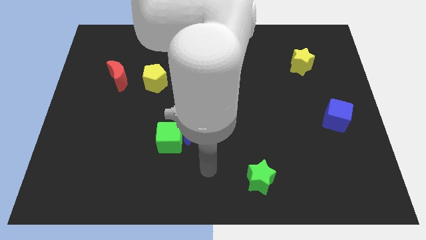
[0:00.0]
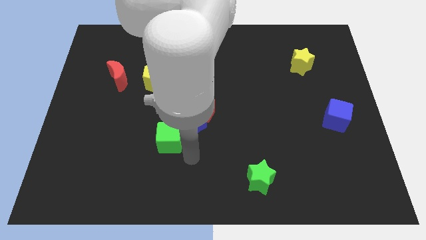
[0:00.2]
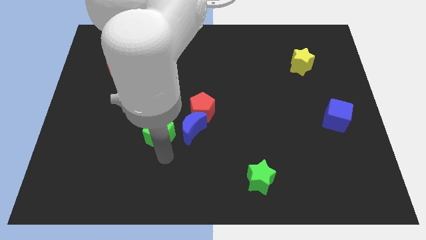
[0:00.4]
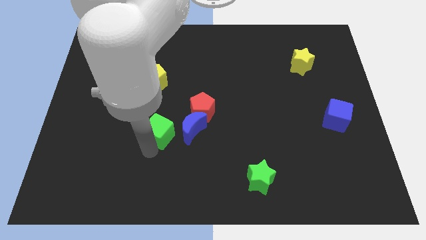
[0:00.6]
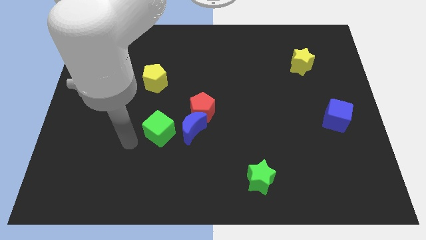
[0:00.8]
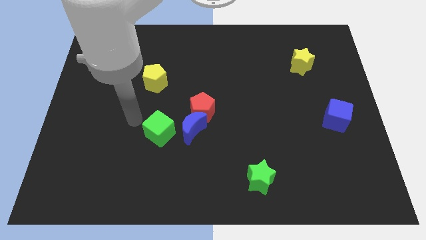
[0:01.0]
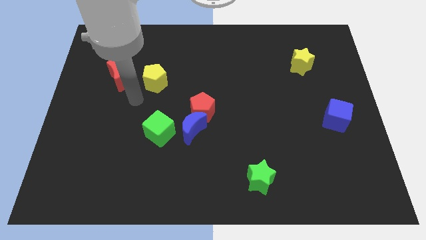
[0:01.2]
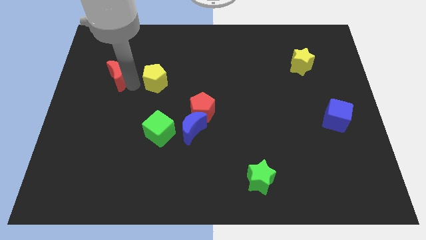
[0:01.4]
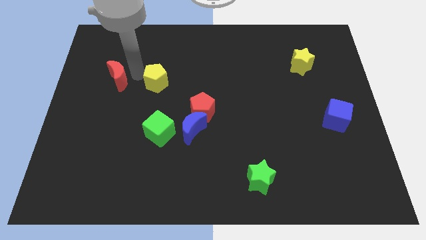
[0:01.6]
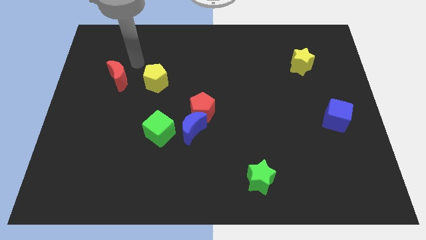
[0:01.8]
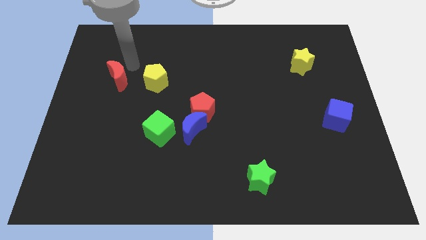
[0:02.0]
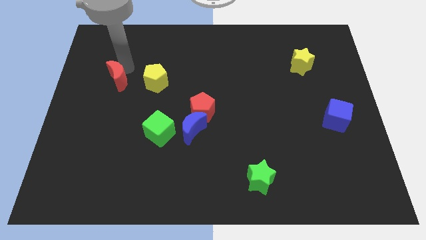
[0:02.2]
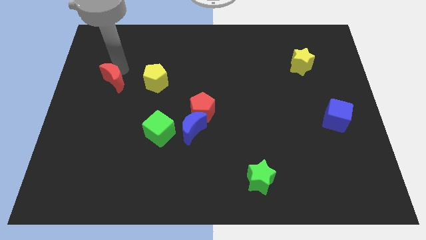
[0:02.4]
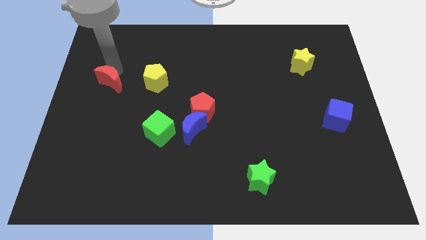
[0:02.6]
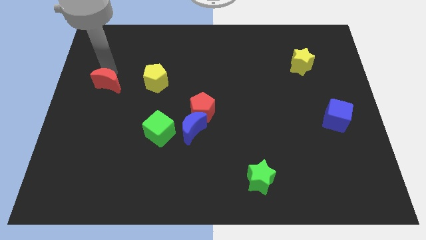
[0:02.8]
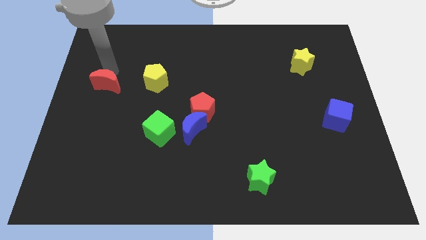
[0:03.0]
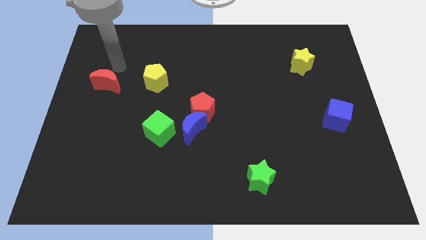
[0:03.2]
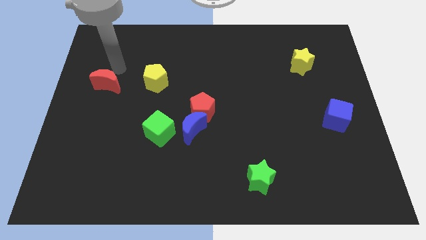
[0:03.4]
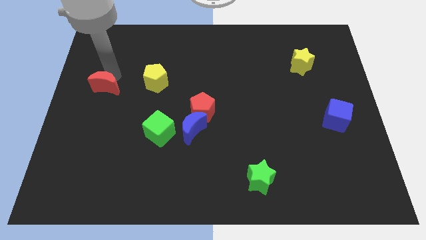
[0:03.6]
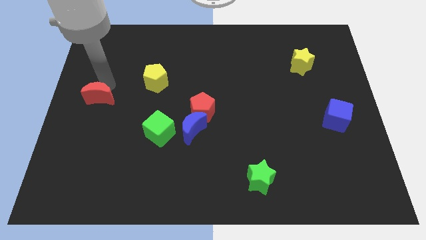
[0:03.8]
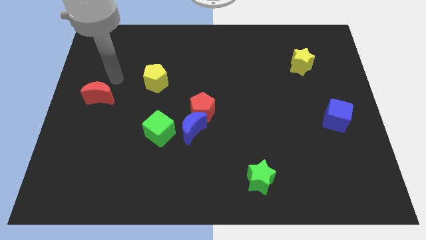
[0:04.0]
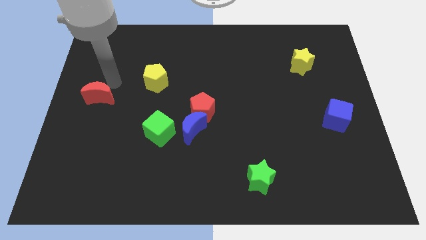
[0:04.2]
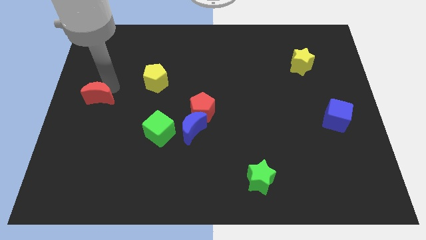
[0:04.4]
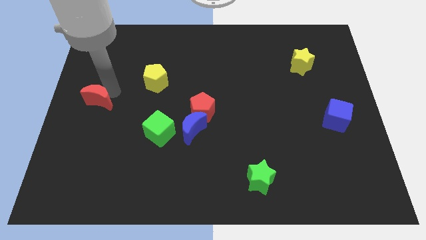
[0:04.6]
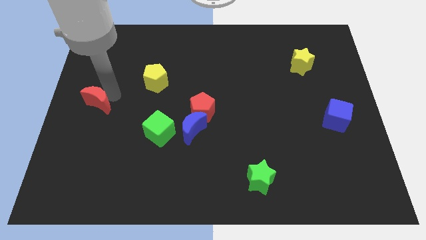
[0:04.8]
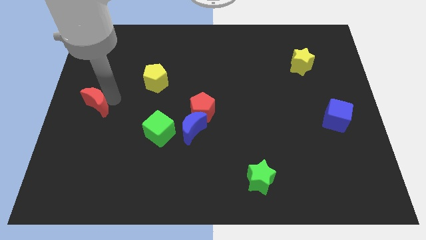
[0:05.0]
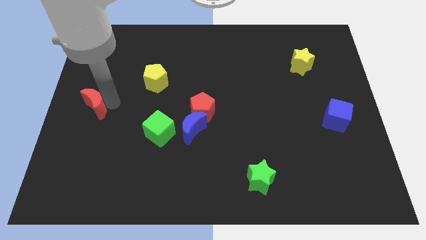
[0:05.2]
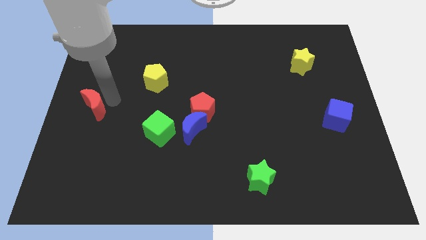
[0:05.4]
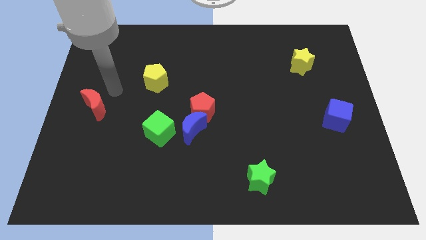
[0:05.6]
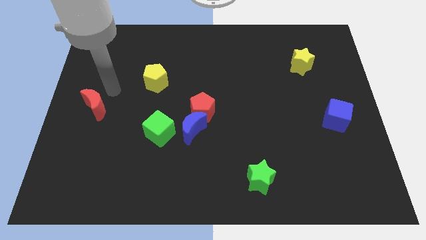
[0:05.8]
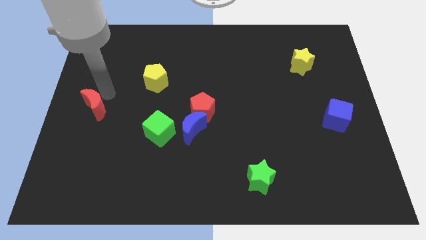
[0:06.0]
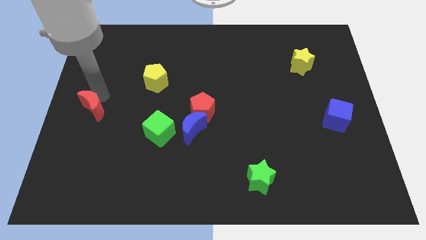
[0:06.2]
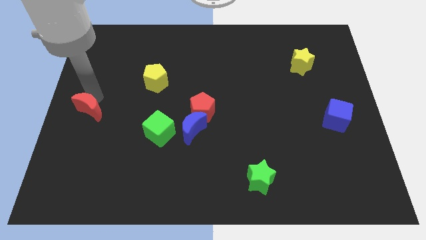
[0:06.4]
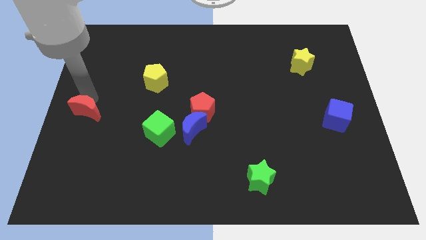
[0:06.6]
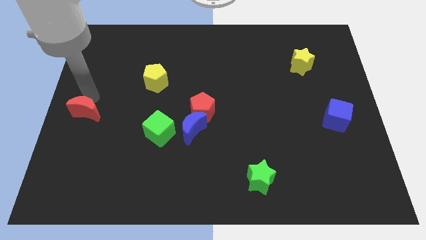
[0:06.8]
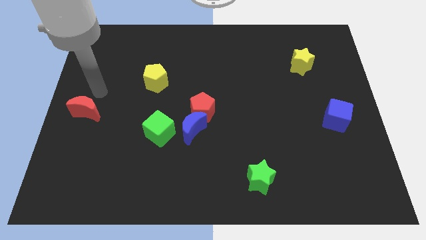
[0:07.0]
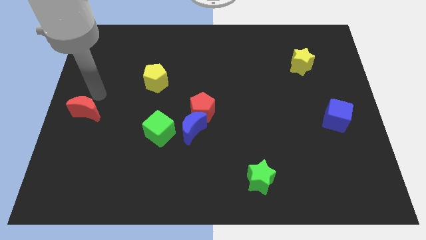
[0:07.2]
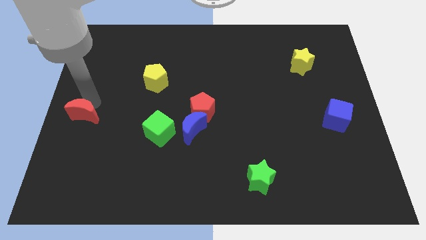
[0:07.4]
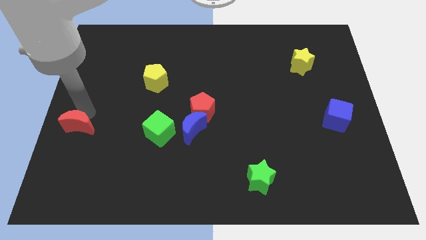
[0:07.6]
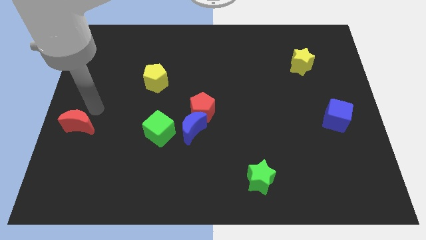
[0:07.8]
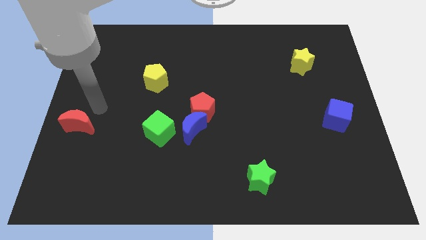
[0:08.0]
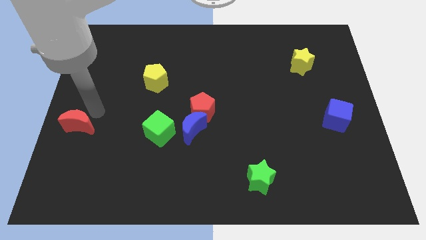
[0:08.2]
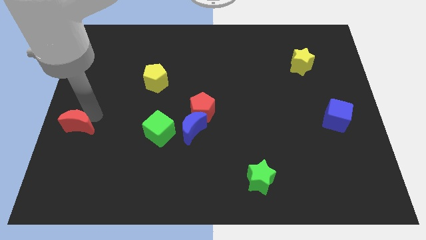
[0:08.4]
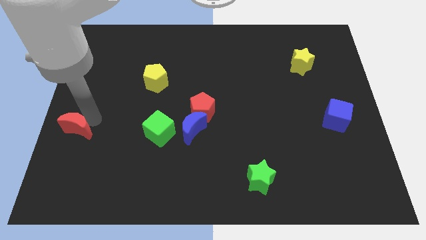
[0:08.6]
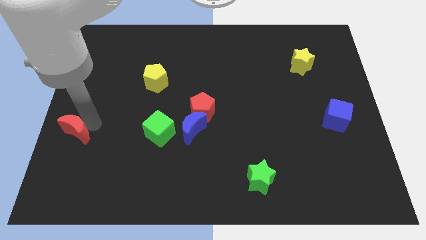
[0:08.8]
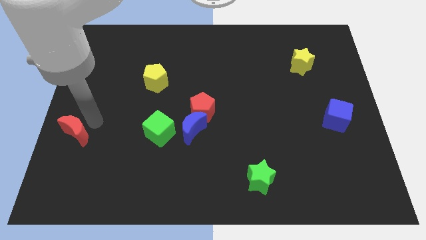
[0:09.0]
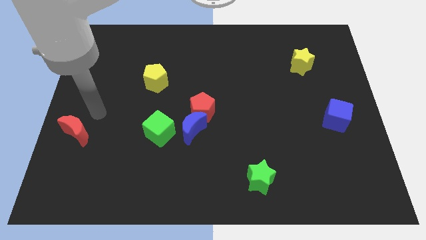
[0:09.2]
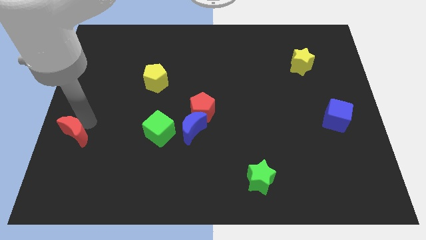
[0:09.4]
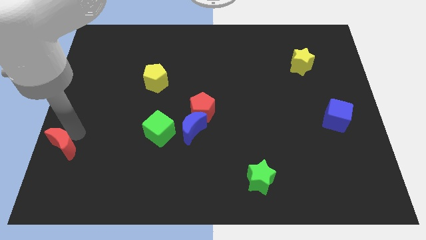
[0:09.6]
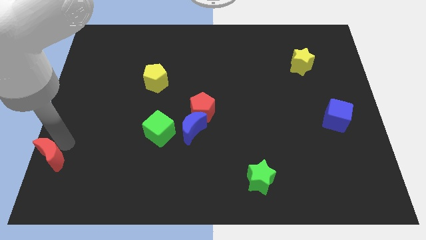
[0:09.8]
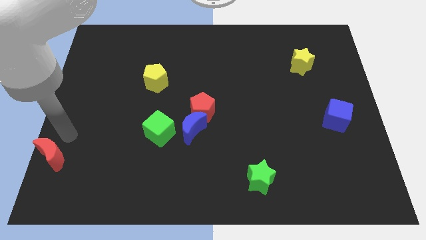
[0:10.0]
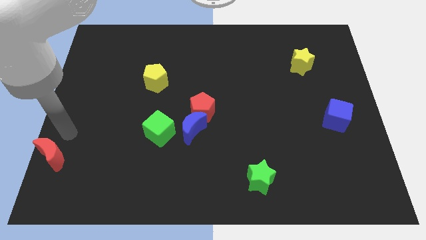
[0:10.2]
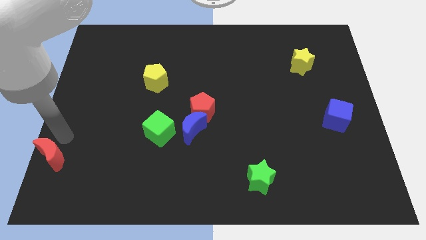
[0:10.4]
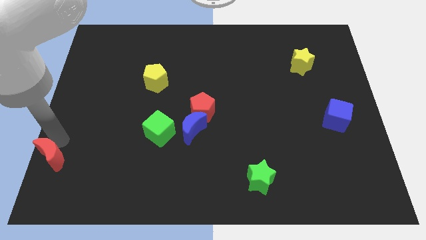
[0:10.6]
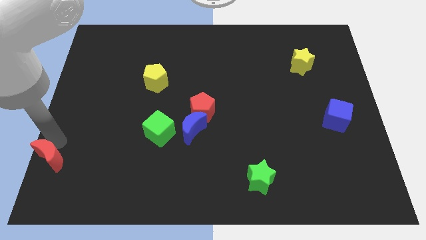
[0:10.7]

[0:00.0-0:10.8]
put the red moon to the bottom left corner
